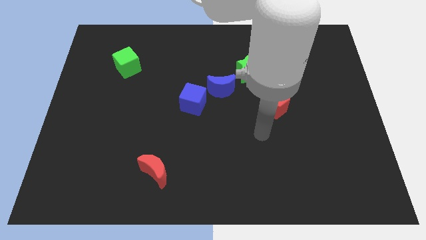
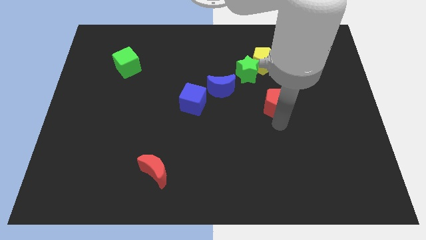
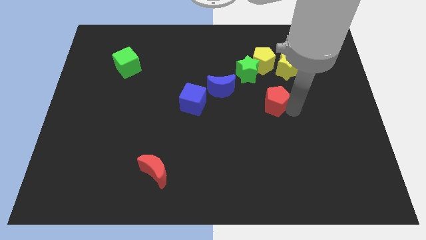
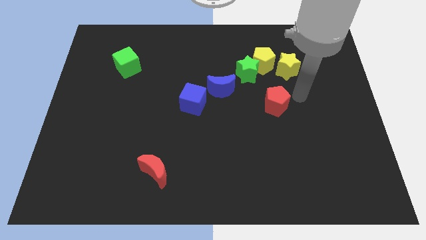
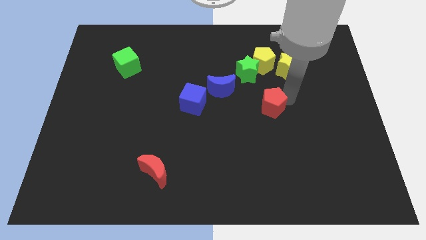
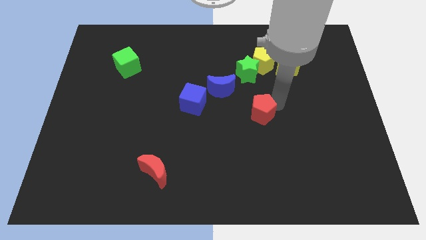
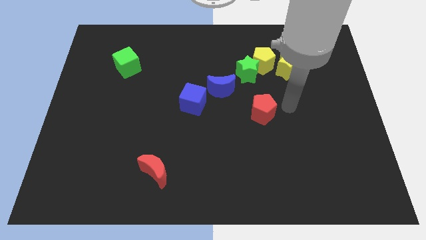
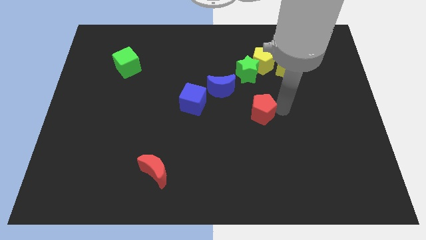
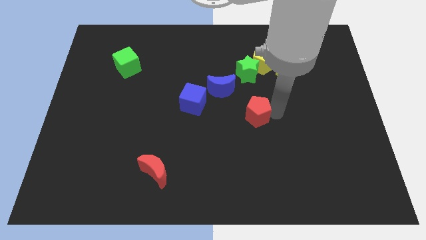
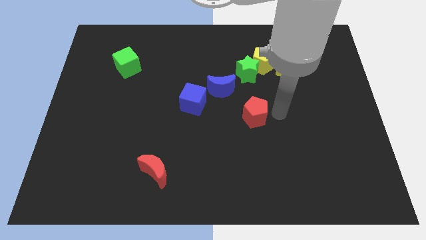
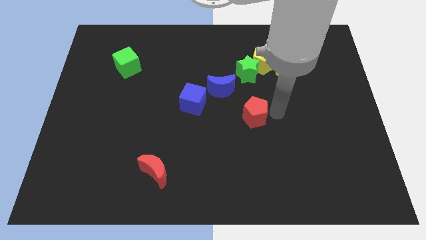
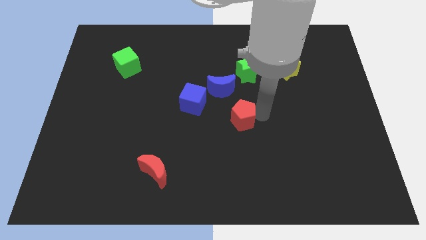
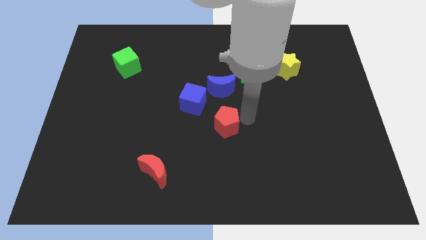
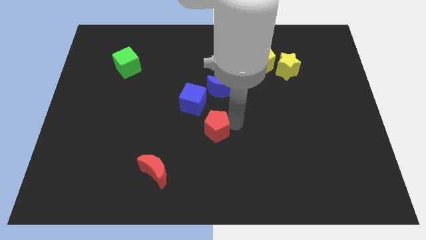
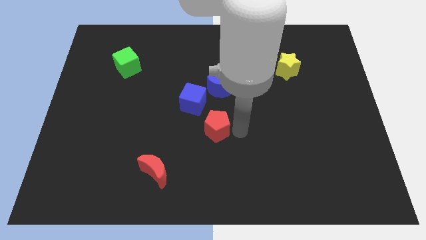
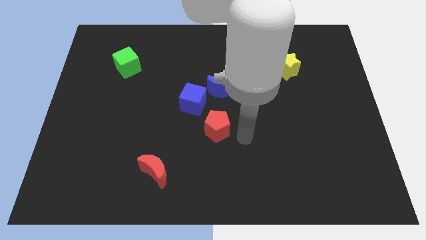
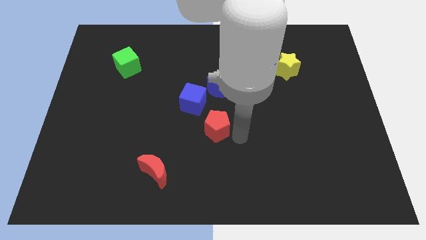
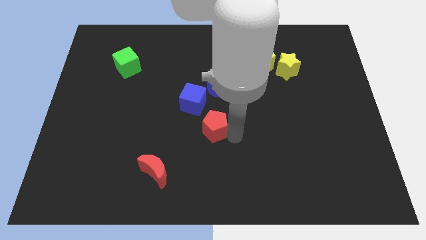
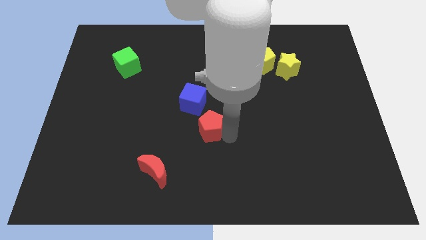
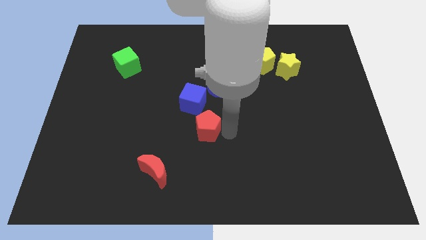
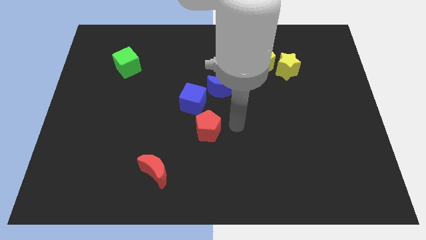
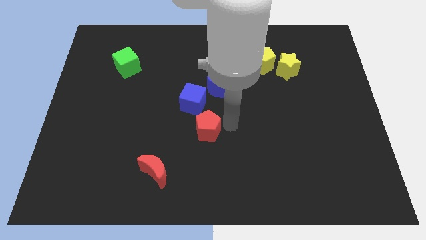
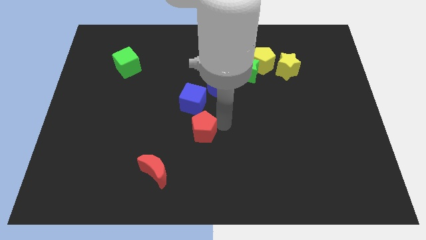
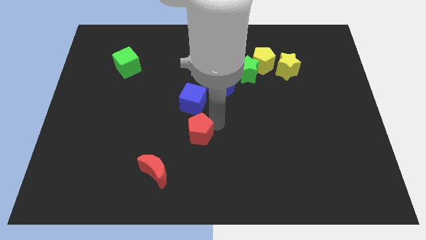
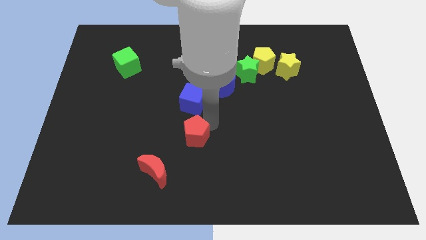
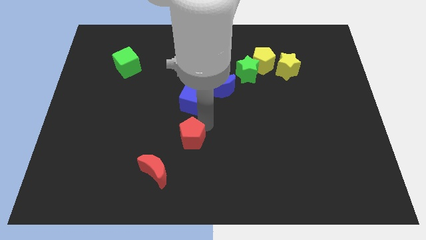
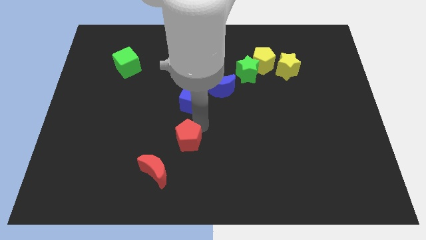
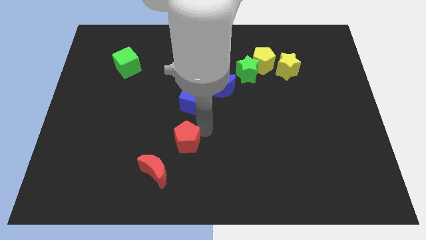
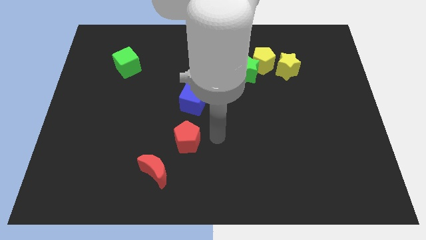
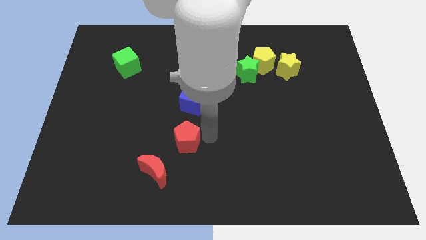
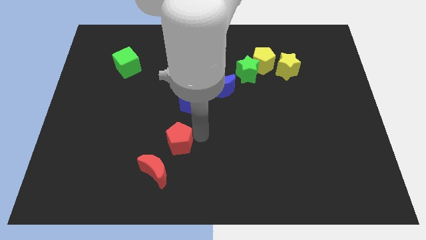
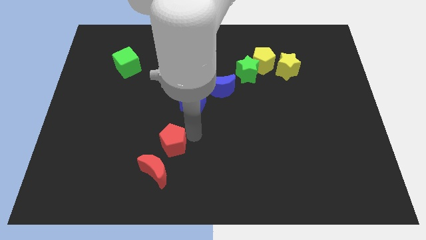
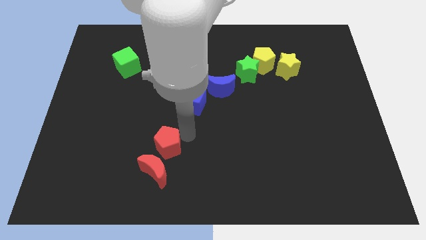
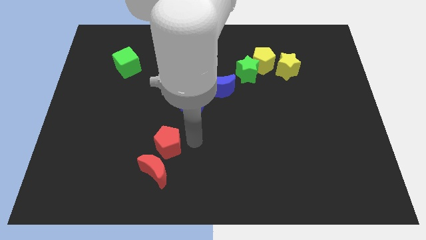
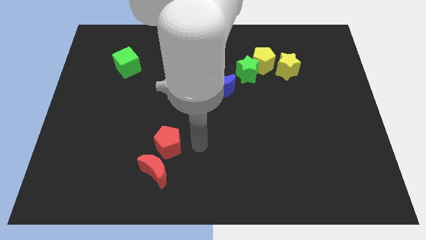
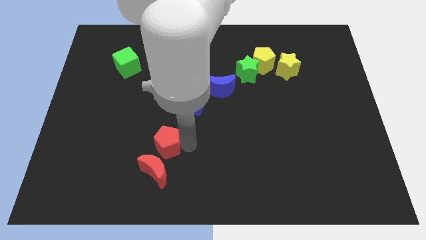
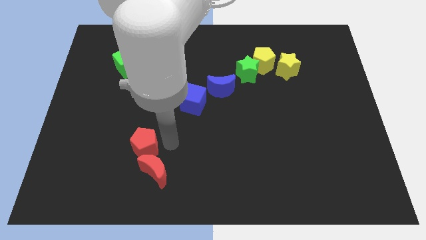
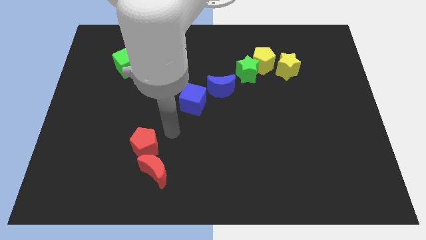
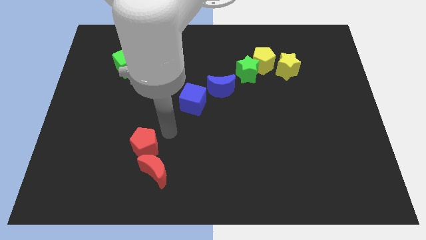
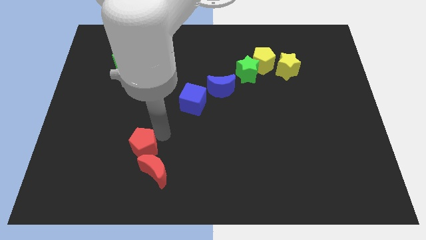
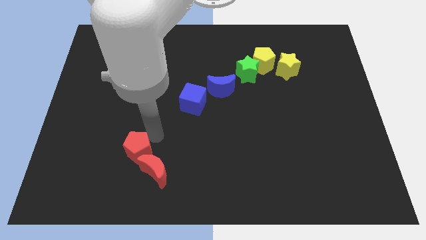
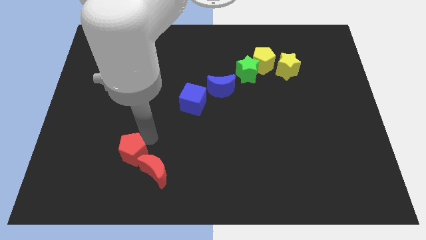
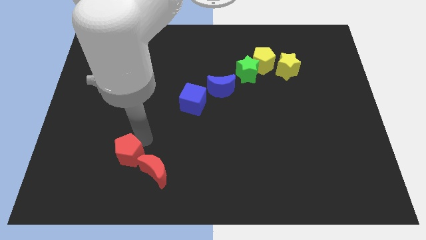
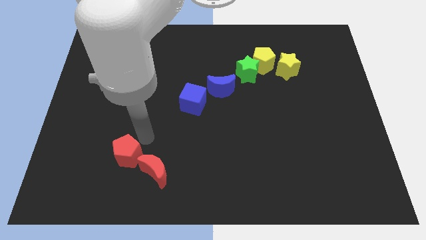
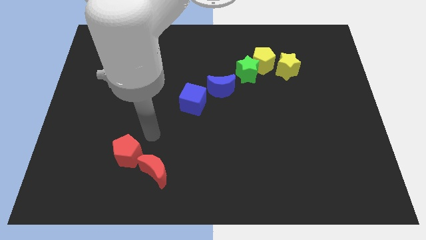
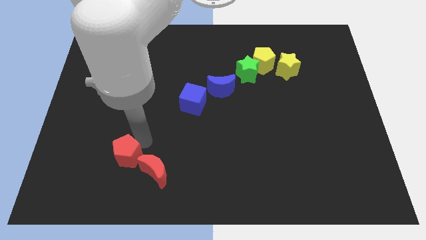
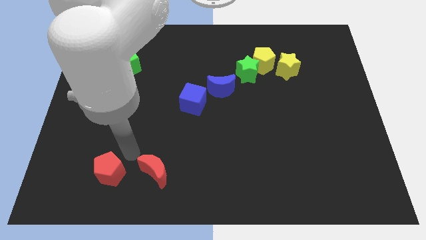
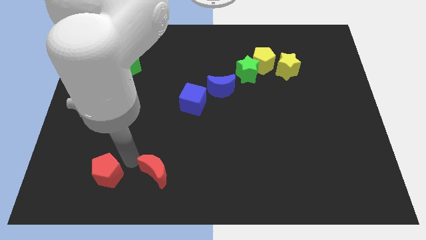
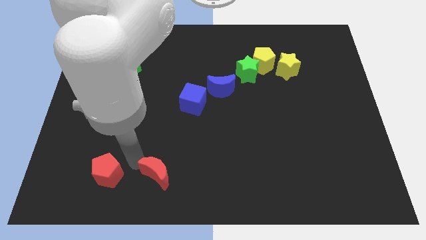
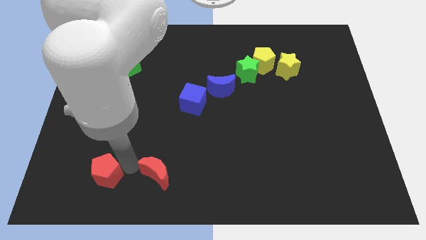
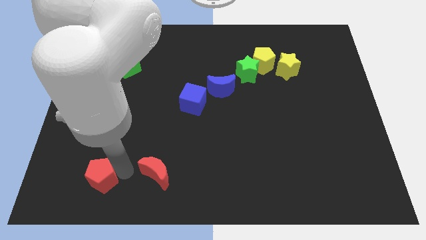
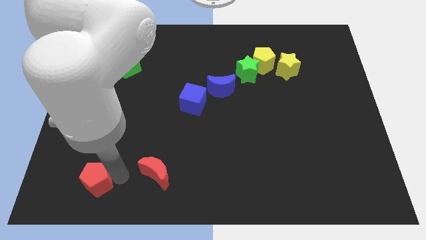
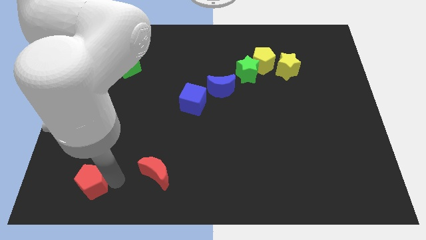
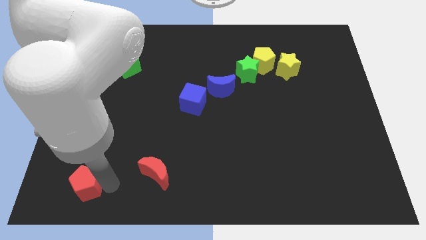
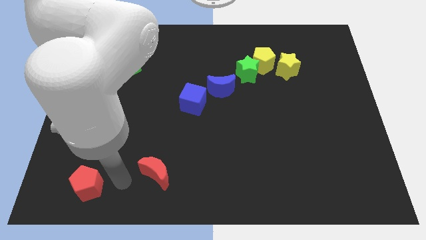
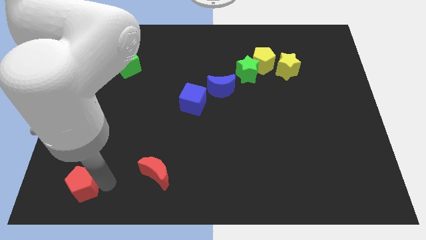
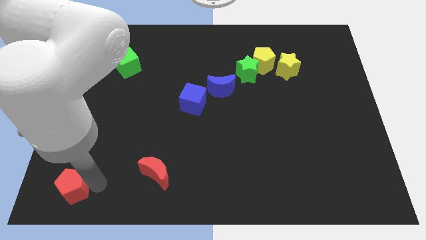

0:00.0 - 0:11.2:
put the red pentagon to the bottom left

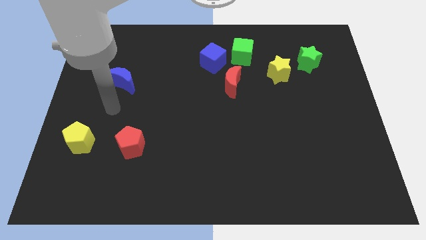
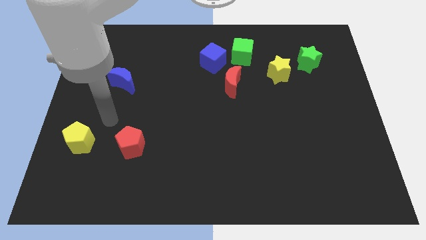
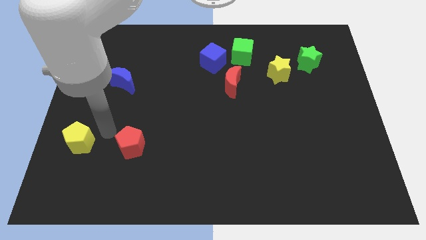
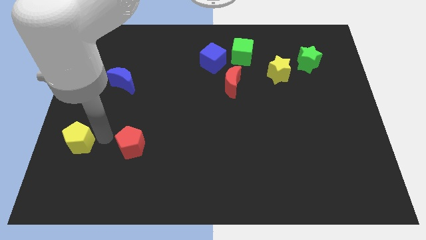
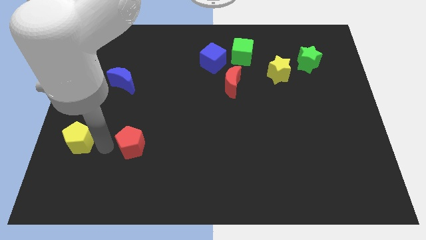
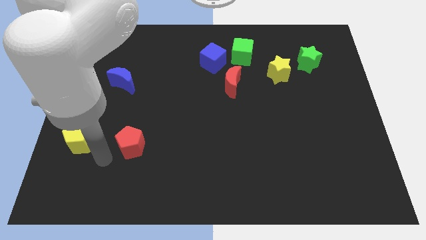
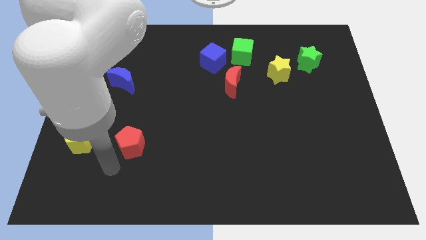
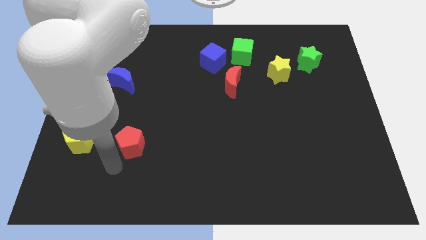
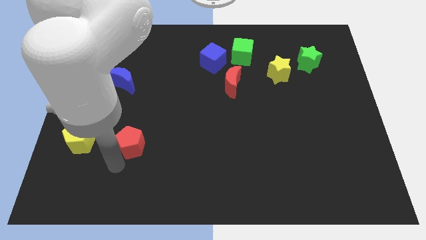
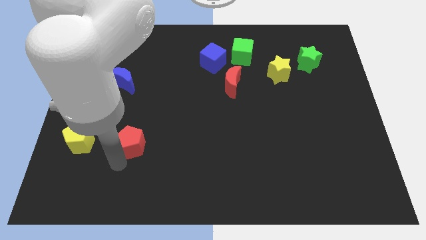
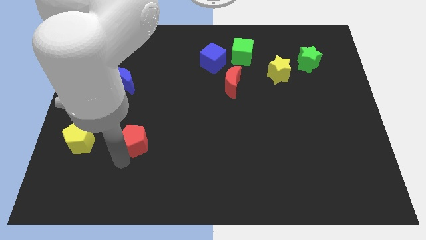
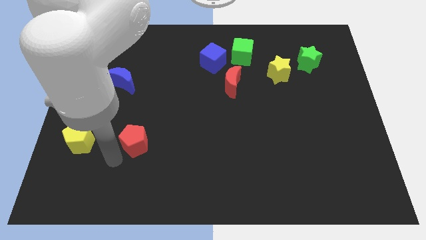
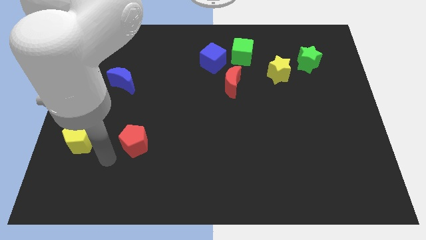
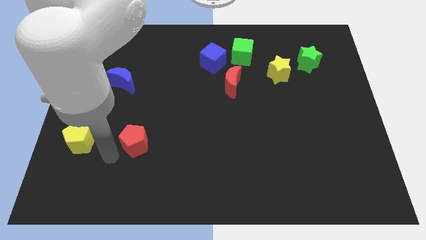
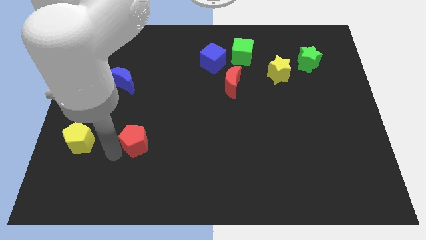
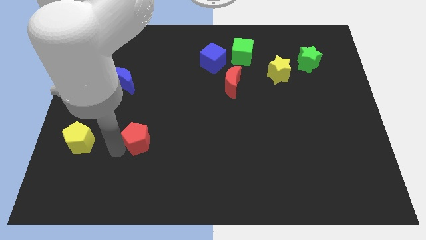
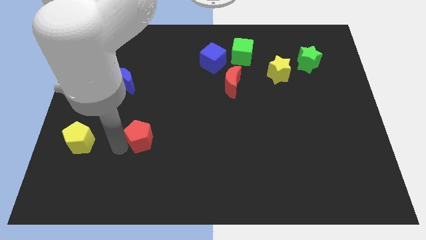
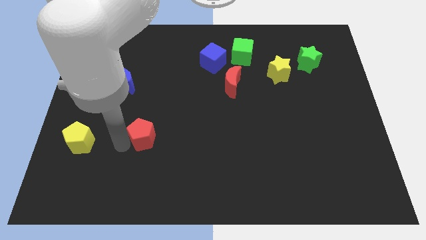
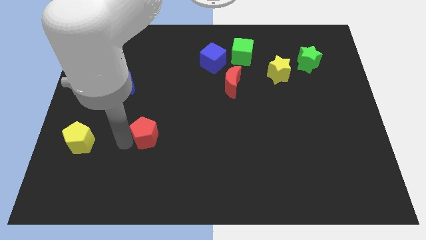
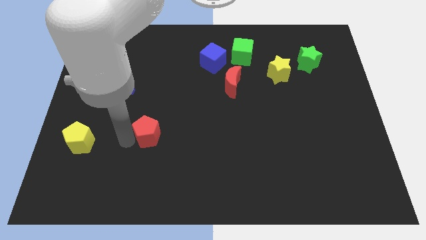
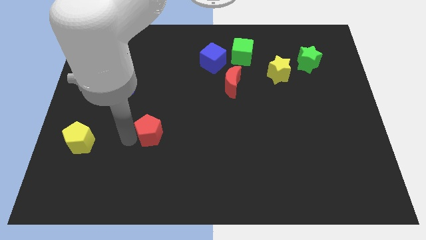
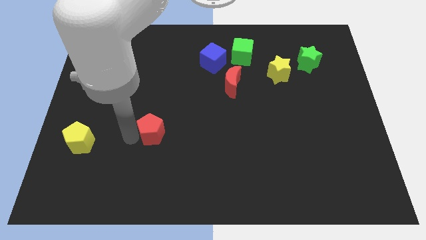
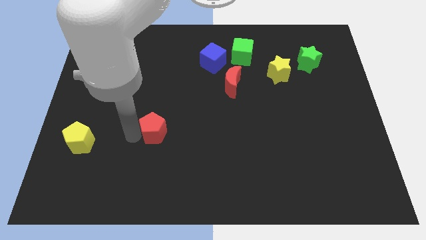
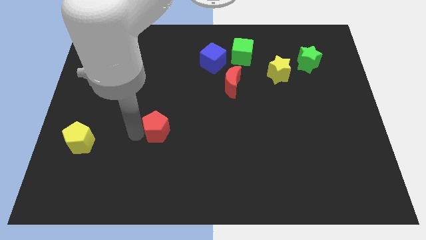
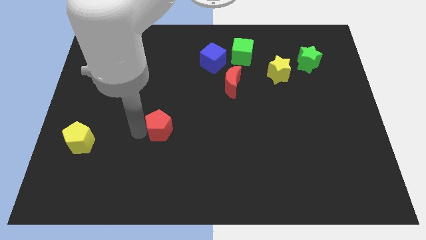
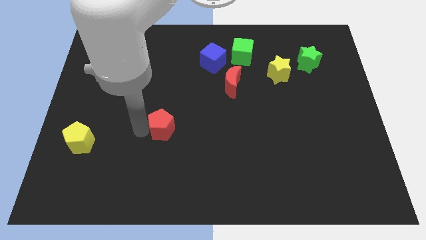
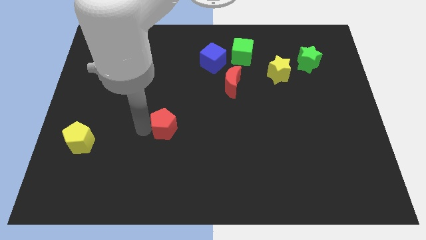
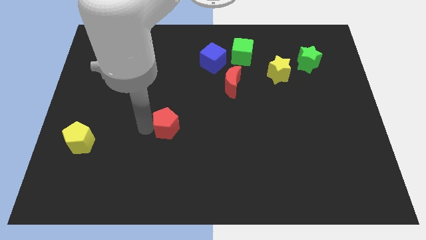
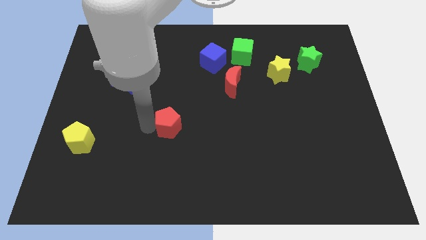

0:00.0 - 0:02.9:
put the red pentagon to the center
